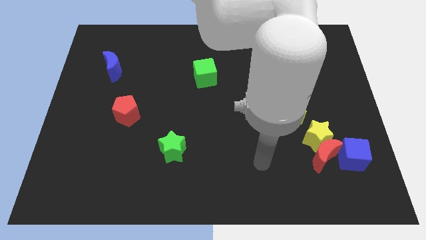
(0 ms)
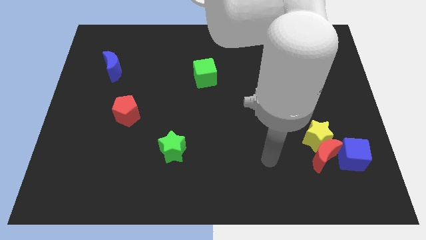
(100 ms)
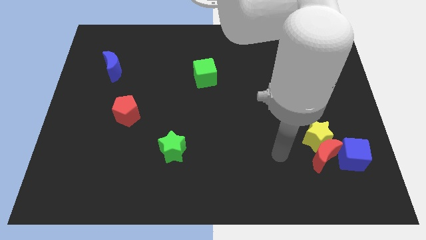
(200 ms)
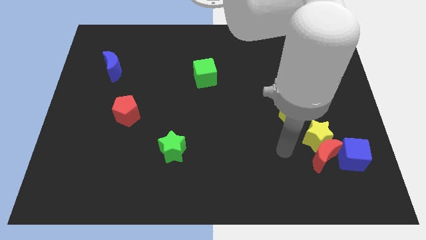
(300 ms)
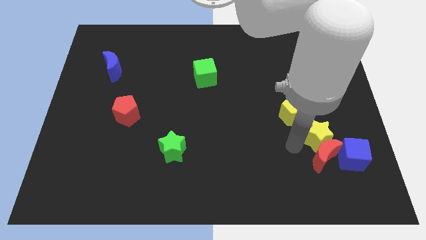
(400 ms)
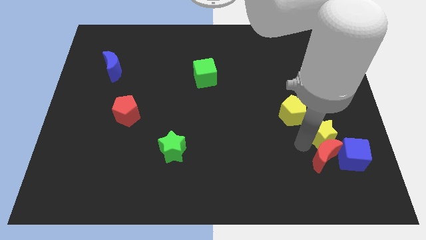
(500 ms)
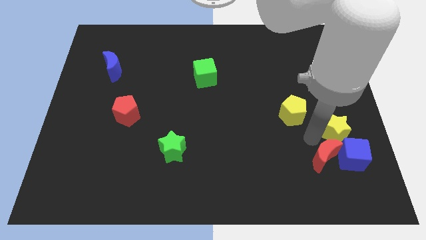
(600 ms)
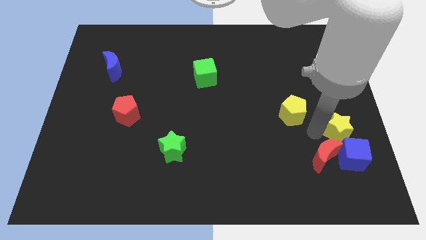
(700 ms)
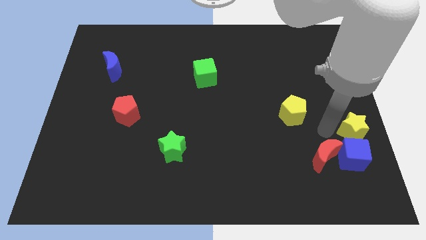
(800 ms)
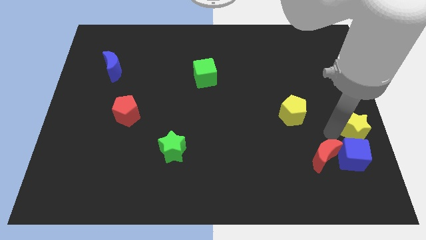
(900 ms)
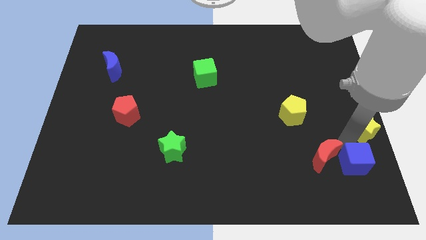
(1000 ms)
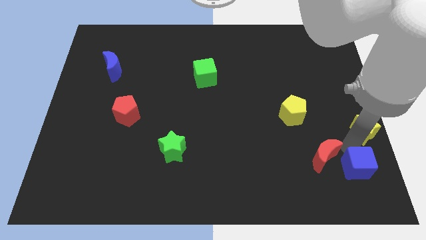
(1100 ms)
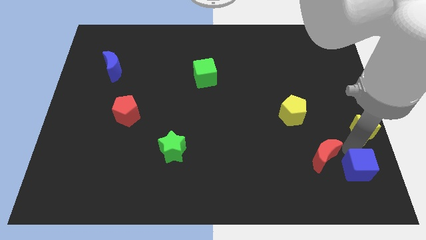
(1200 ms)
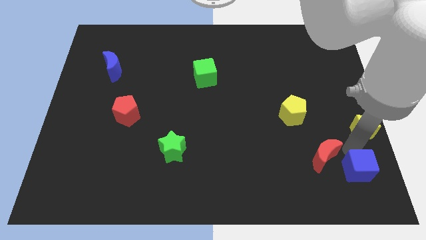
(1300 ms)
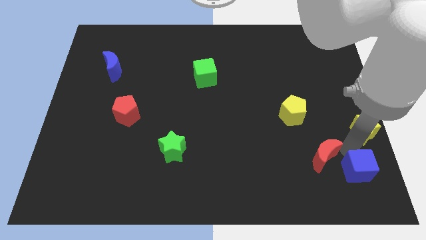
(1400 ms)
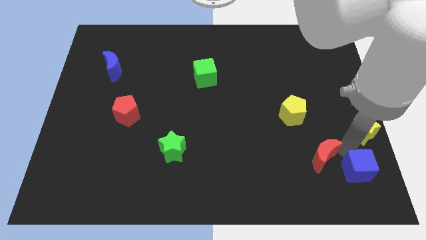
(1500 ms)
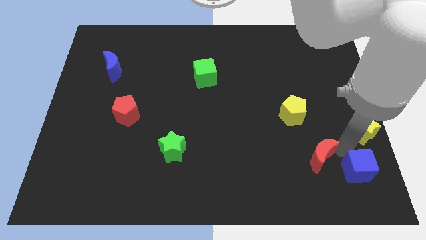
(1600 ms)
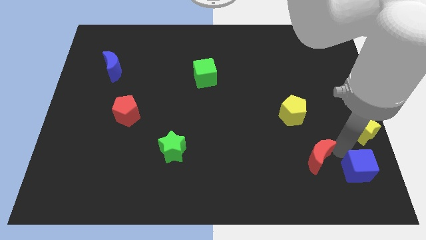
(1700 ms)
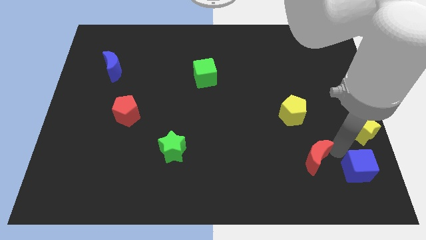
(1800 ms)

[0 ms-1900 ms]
move the red moon away from the yellow star and blue cube

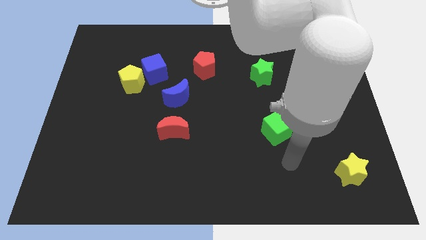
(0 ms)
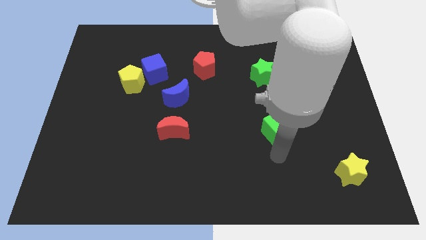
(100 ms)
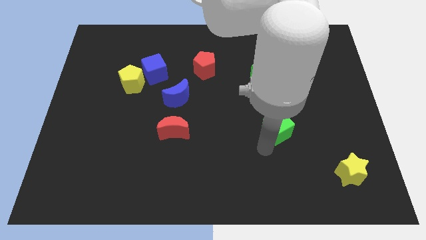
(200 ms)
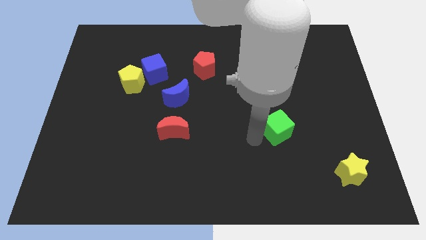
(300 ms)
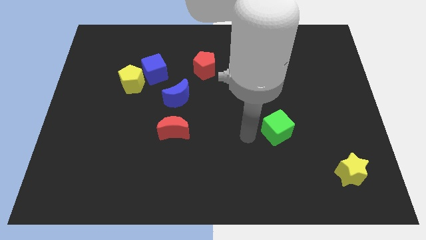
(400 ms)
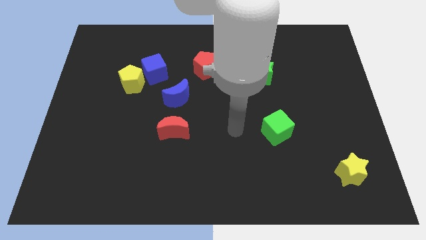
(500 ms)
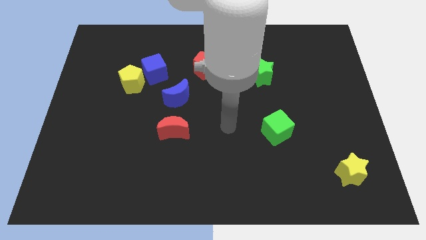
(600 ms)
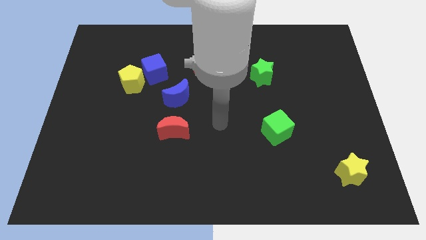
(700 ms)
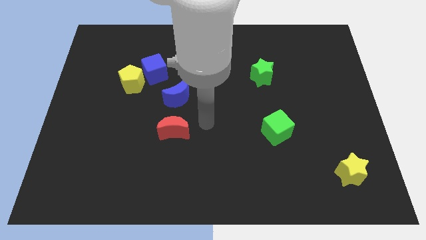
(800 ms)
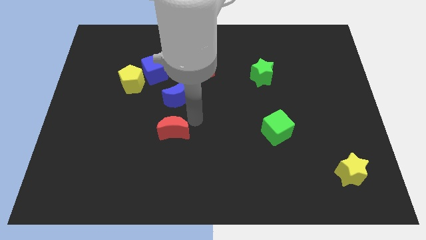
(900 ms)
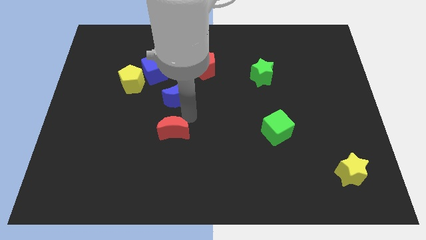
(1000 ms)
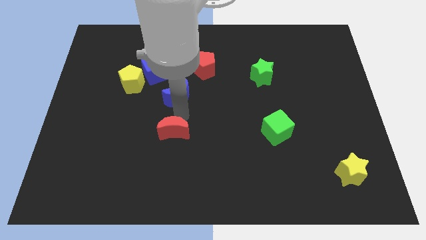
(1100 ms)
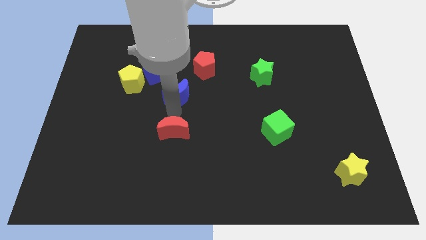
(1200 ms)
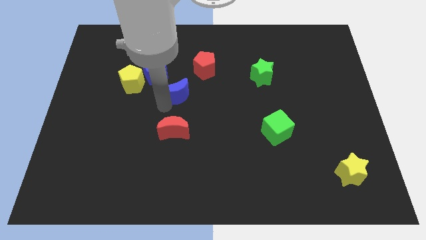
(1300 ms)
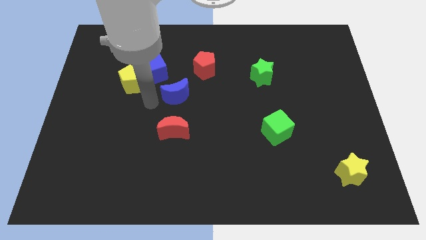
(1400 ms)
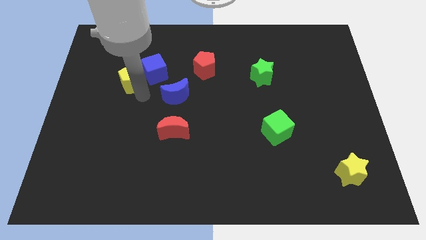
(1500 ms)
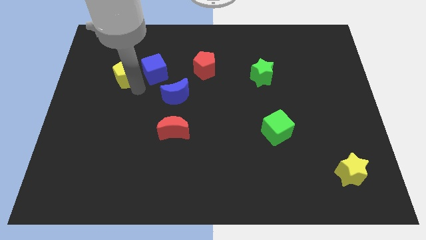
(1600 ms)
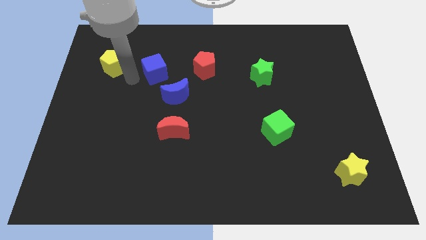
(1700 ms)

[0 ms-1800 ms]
pull the blue cube apart from the yellow pentagon

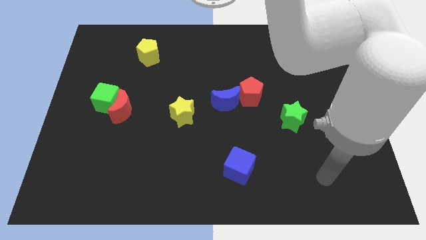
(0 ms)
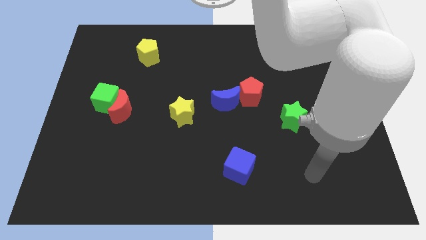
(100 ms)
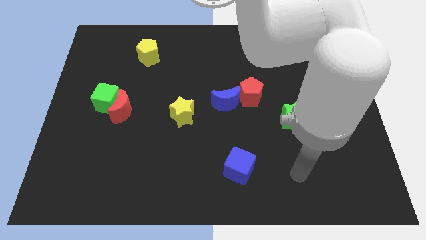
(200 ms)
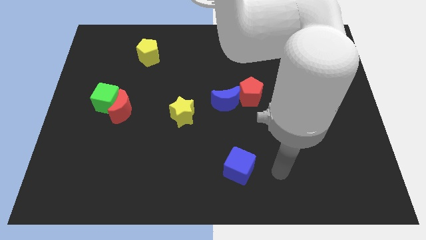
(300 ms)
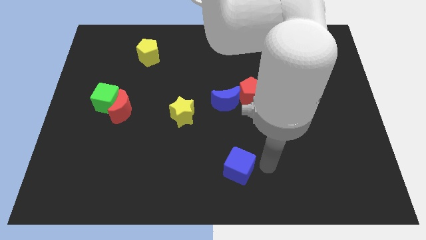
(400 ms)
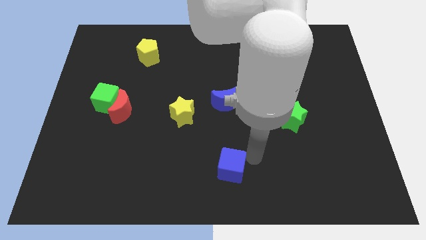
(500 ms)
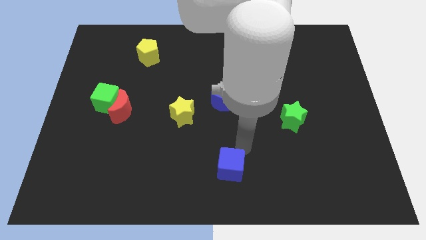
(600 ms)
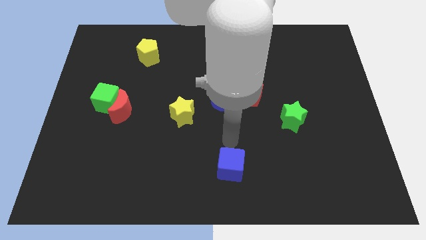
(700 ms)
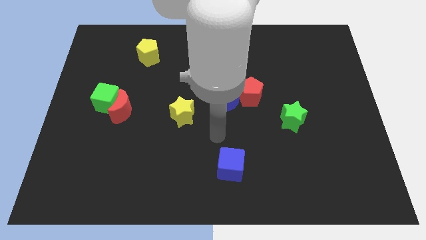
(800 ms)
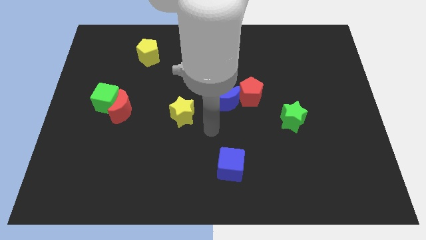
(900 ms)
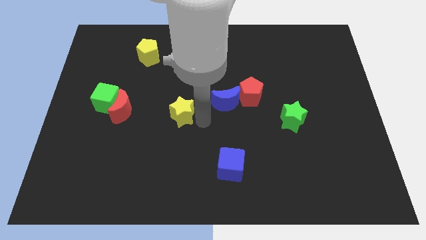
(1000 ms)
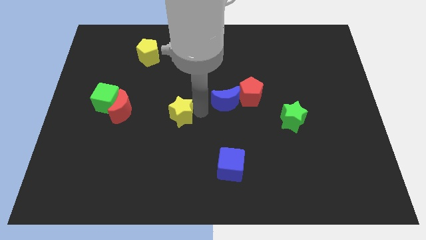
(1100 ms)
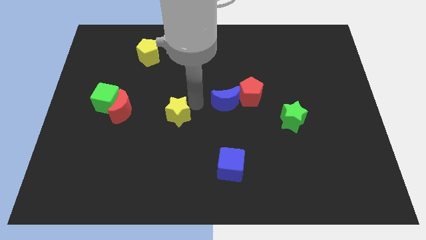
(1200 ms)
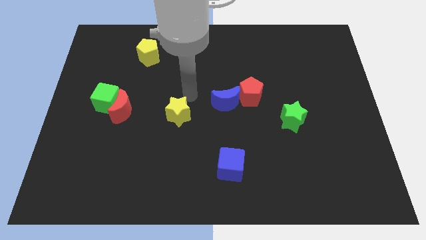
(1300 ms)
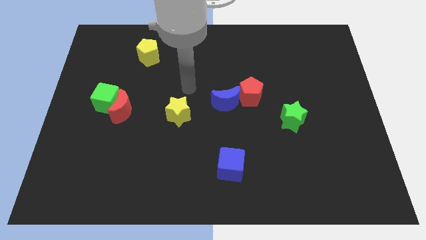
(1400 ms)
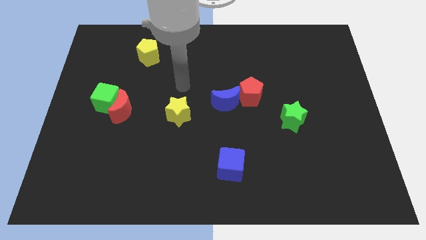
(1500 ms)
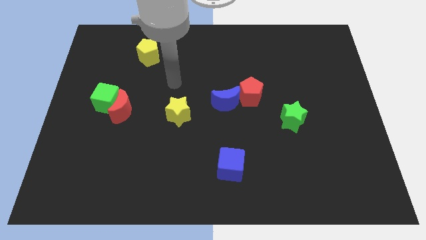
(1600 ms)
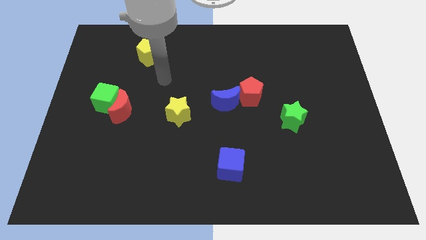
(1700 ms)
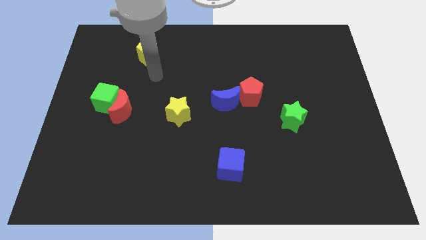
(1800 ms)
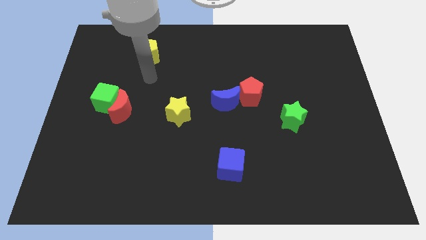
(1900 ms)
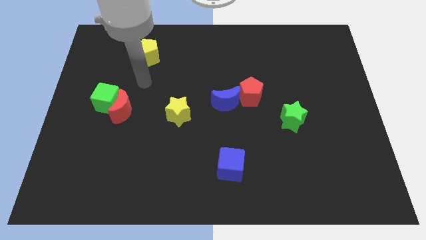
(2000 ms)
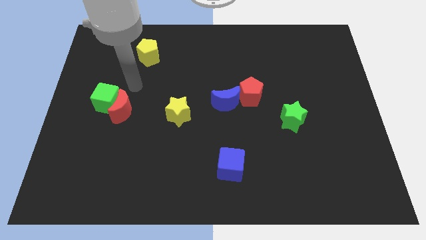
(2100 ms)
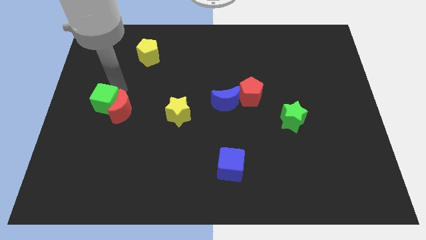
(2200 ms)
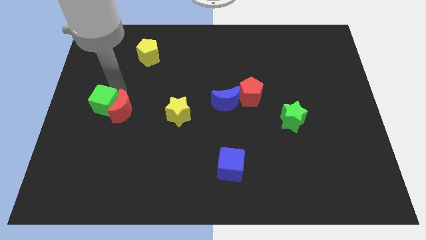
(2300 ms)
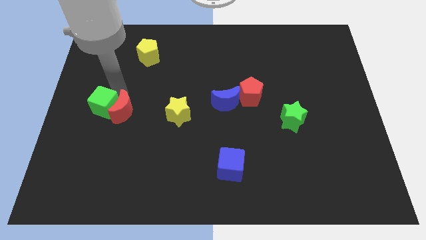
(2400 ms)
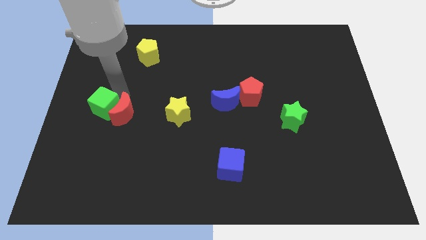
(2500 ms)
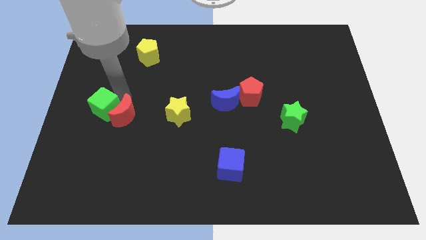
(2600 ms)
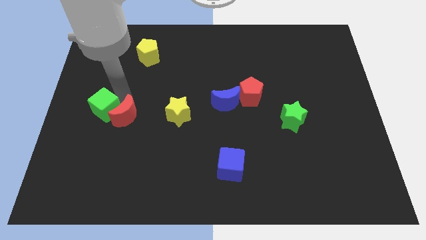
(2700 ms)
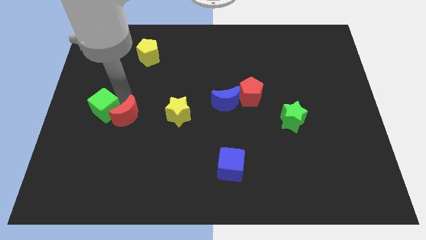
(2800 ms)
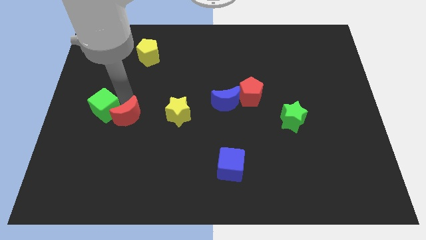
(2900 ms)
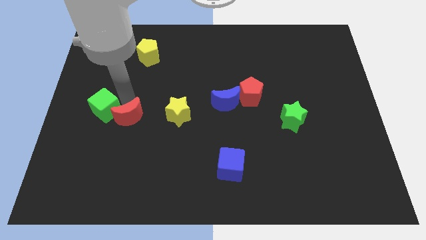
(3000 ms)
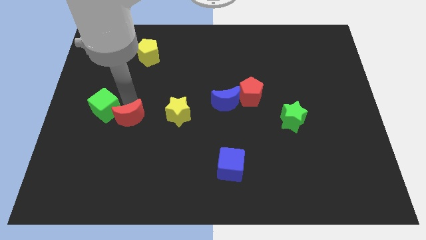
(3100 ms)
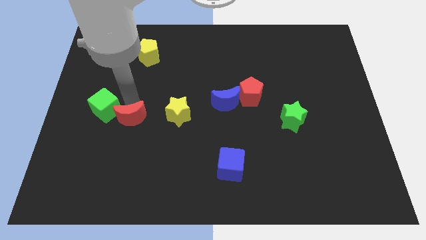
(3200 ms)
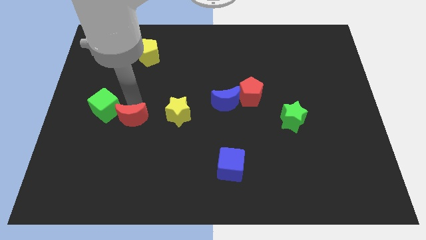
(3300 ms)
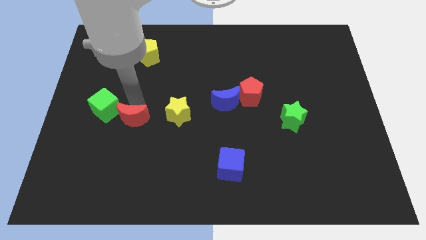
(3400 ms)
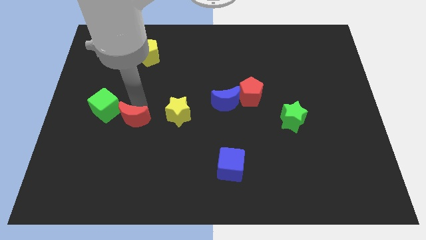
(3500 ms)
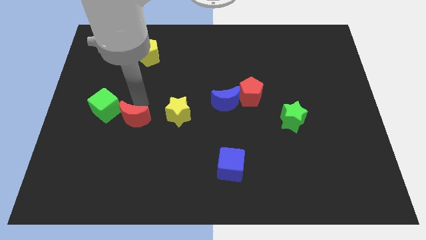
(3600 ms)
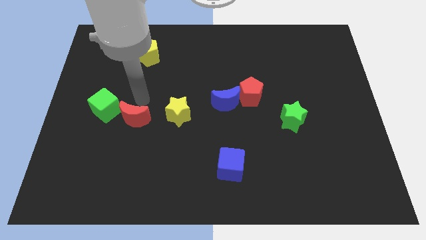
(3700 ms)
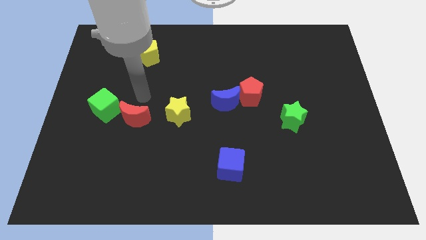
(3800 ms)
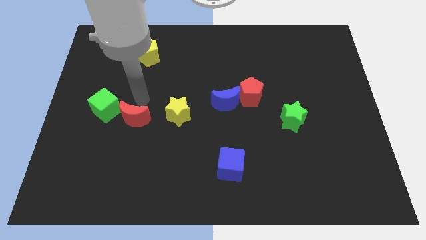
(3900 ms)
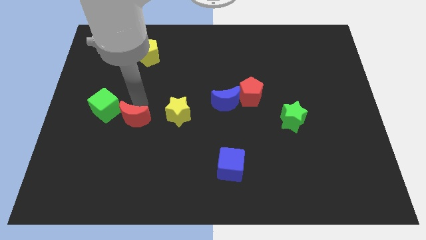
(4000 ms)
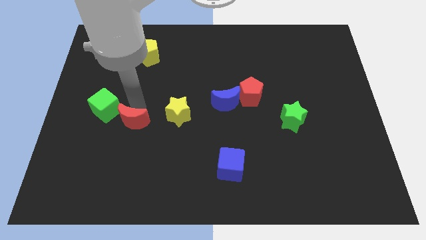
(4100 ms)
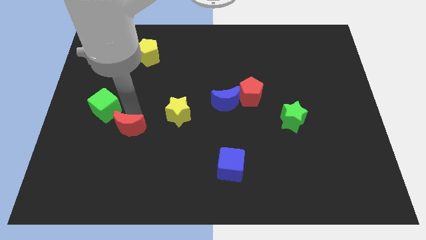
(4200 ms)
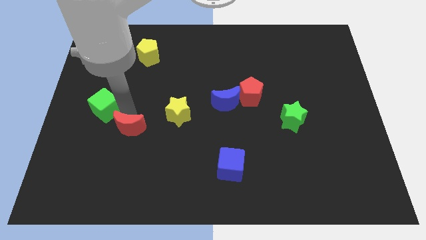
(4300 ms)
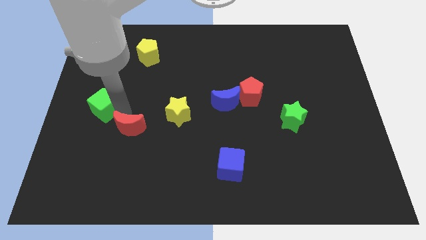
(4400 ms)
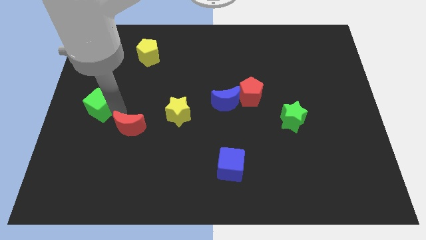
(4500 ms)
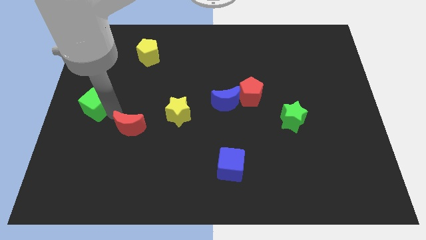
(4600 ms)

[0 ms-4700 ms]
pull the red moon apart from the green cube

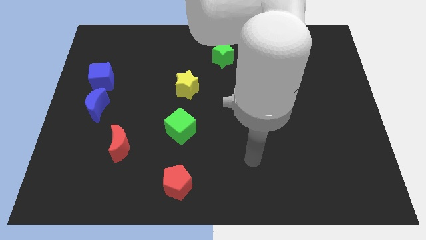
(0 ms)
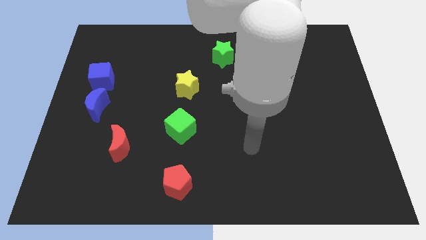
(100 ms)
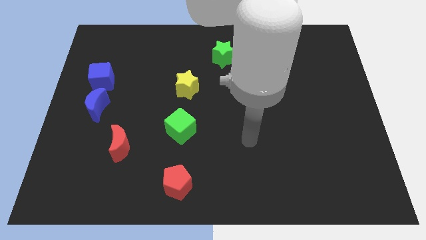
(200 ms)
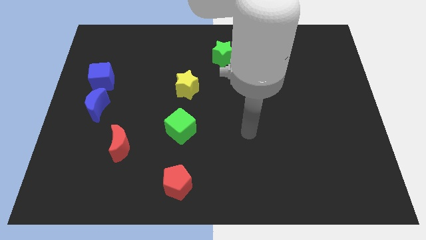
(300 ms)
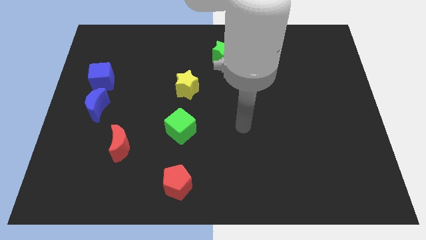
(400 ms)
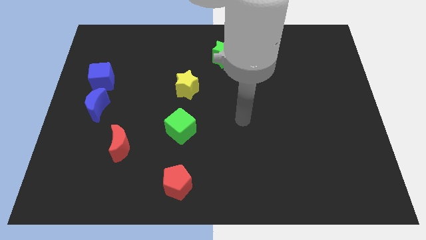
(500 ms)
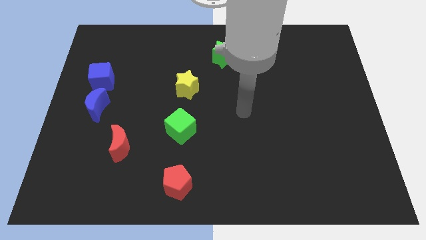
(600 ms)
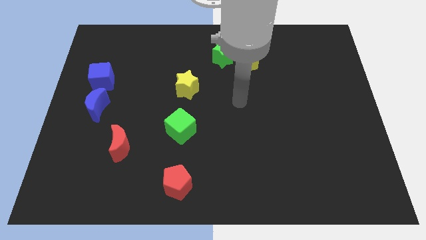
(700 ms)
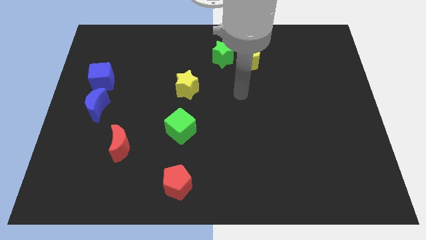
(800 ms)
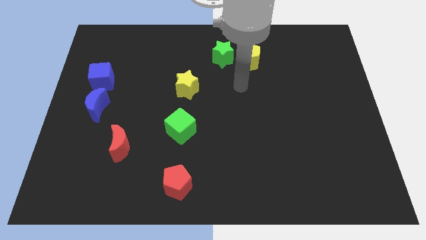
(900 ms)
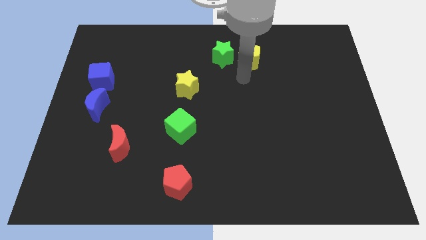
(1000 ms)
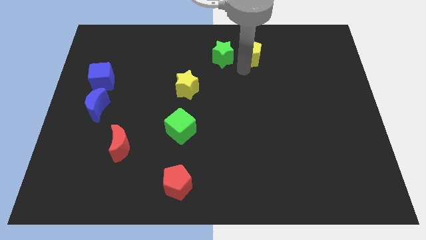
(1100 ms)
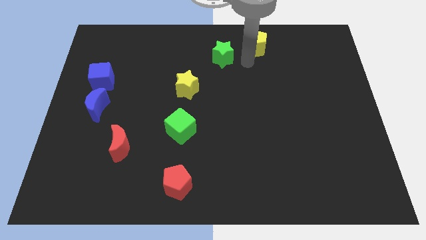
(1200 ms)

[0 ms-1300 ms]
separate the green star from the yellow pentagon
